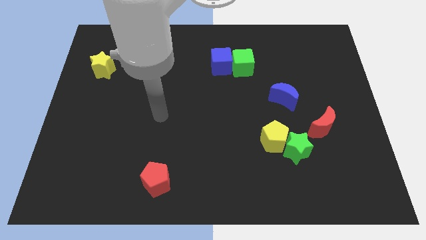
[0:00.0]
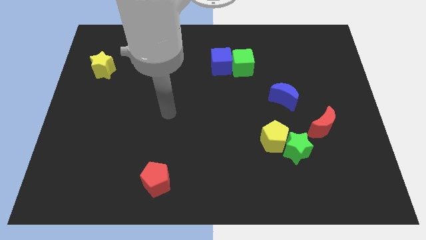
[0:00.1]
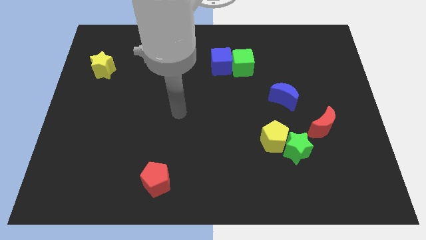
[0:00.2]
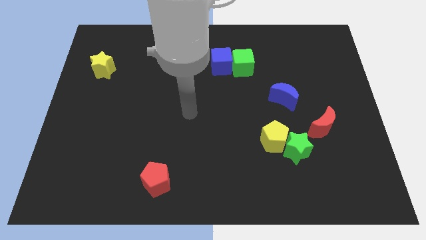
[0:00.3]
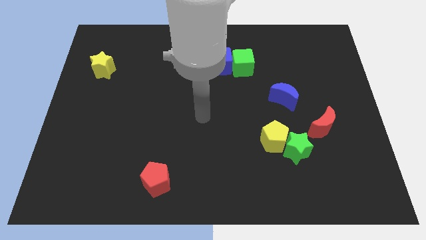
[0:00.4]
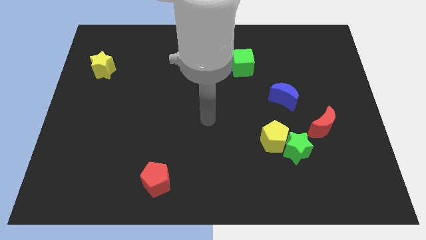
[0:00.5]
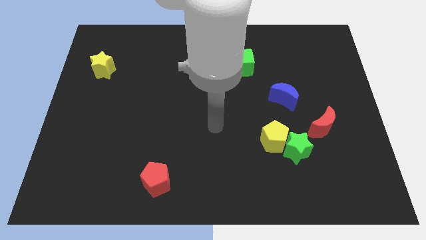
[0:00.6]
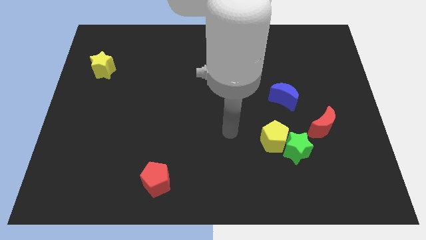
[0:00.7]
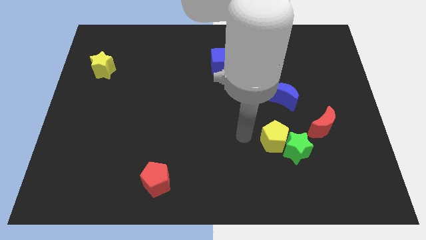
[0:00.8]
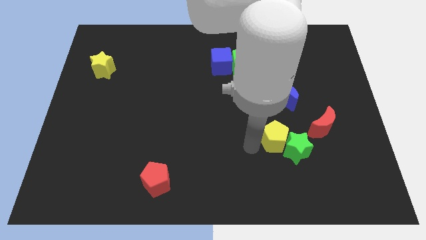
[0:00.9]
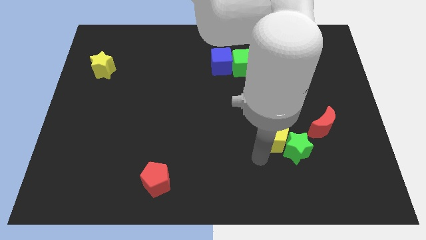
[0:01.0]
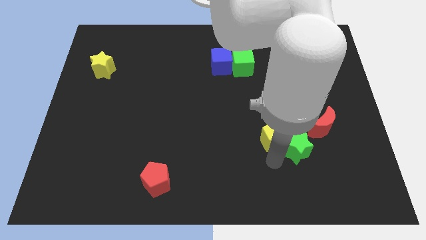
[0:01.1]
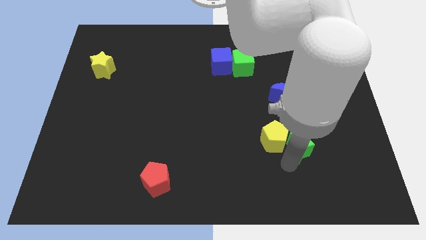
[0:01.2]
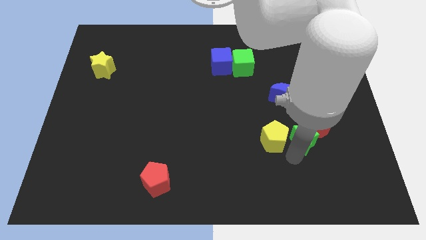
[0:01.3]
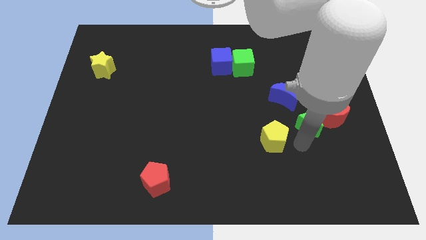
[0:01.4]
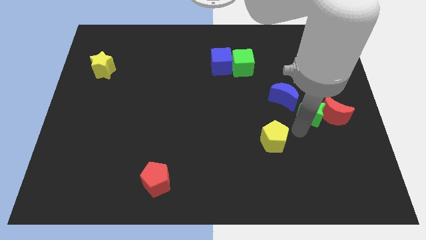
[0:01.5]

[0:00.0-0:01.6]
move the yellow pentagon away from the green star

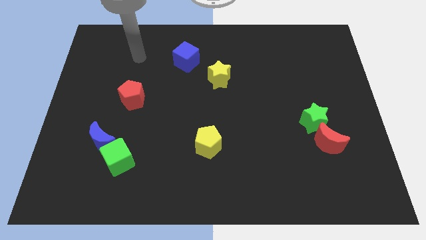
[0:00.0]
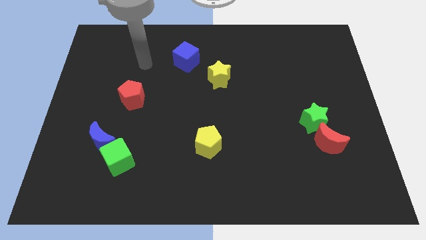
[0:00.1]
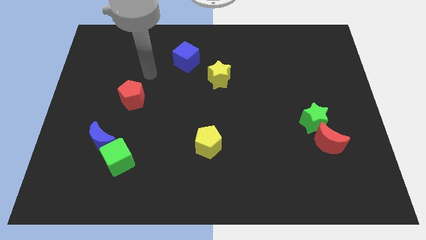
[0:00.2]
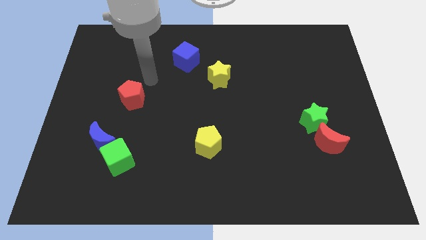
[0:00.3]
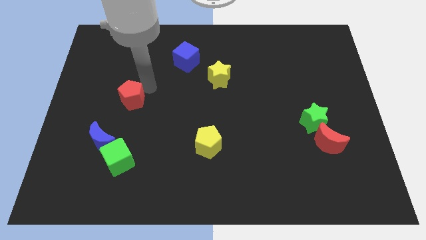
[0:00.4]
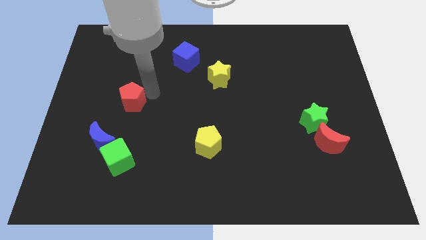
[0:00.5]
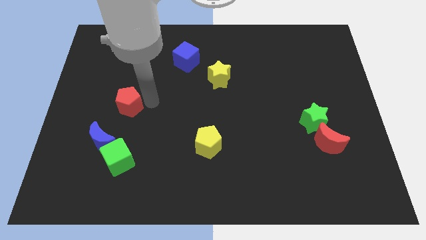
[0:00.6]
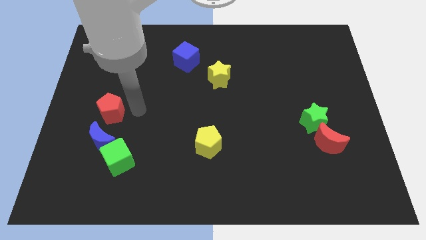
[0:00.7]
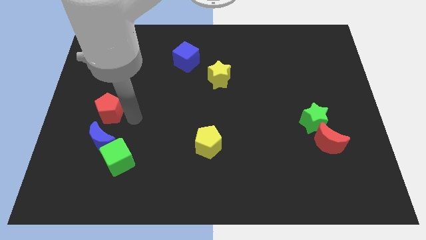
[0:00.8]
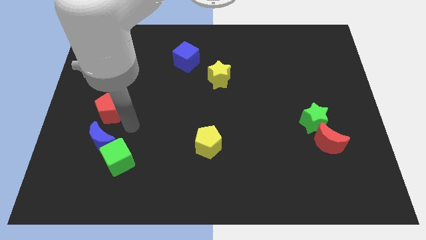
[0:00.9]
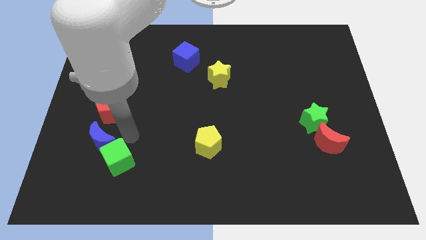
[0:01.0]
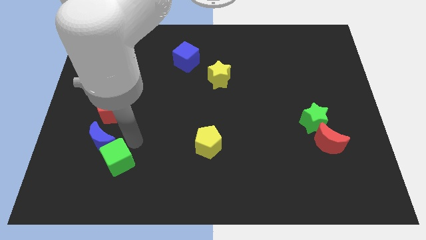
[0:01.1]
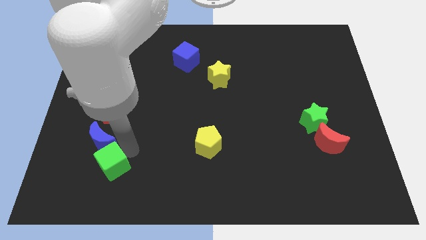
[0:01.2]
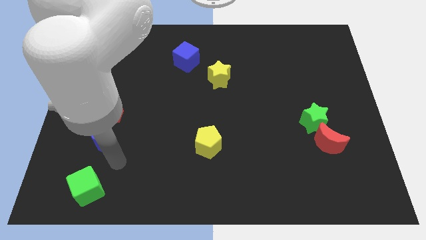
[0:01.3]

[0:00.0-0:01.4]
pull the blue moon apart from the green cube

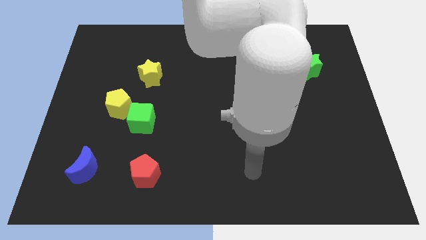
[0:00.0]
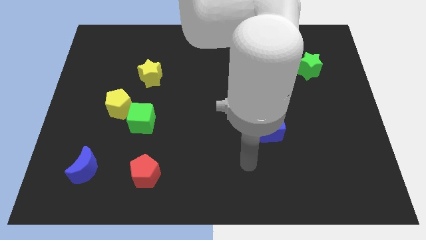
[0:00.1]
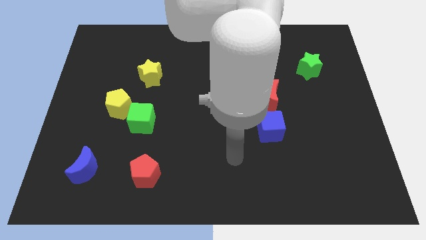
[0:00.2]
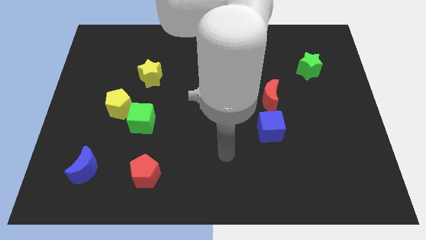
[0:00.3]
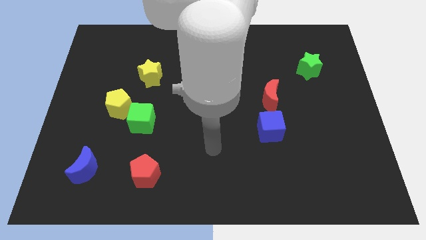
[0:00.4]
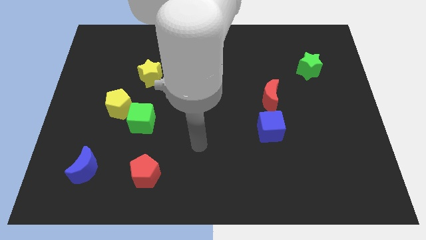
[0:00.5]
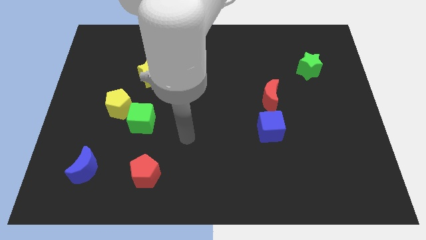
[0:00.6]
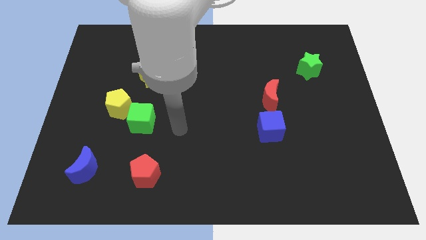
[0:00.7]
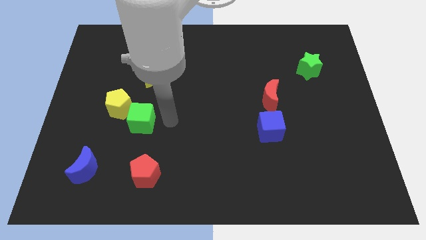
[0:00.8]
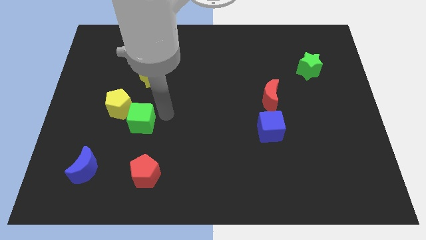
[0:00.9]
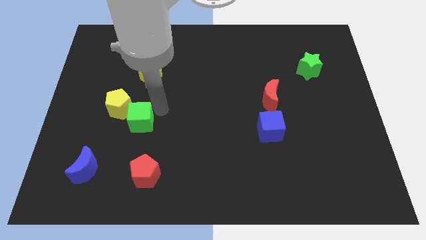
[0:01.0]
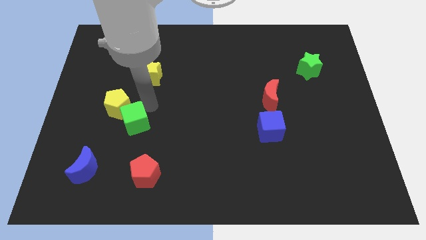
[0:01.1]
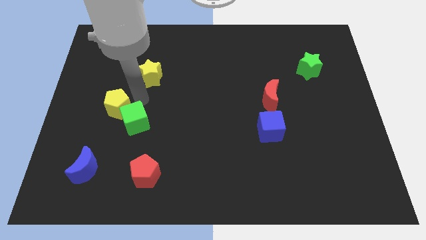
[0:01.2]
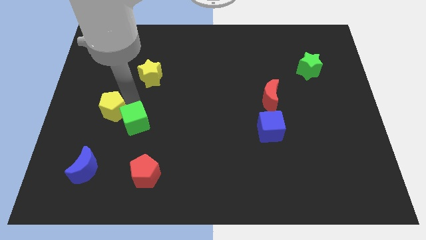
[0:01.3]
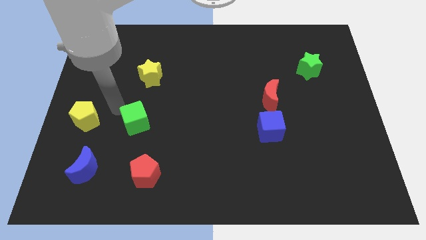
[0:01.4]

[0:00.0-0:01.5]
separate the green cube from the yellow pentagon

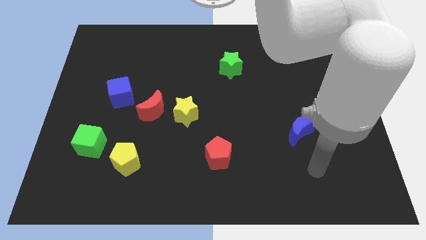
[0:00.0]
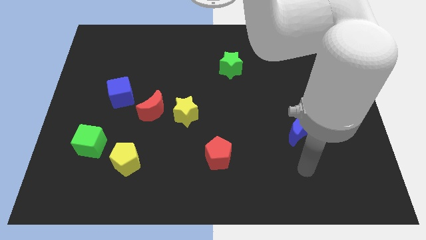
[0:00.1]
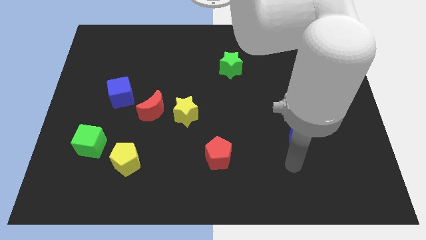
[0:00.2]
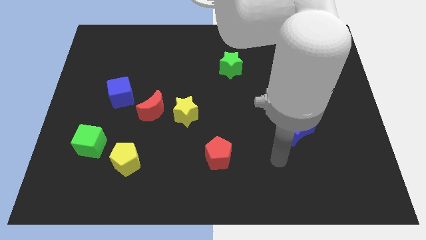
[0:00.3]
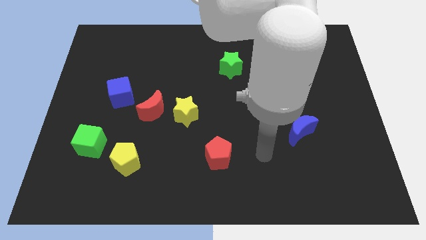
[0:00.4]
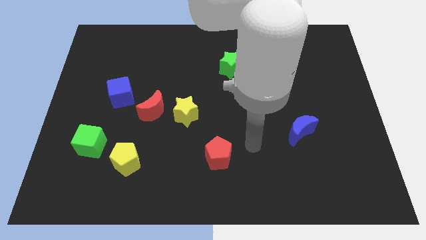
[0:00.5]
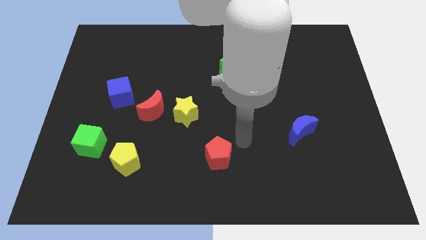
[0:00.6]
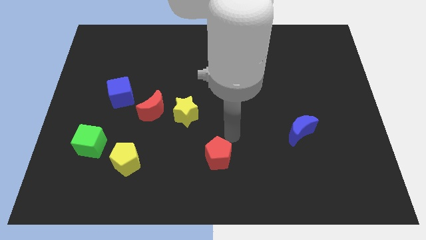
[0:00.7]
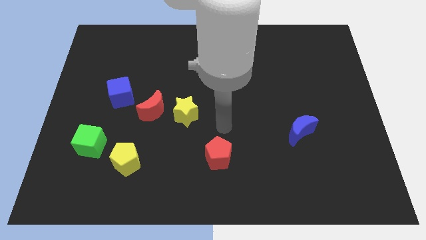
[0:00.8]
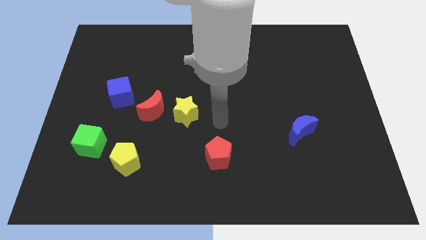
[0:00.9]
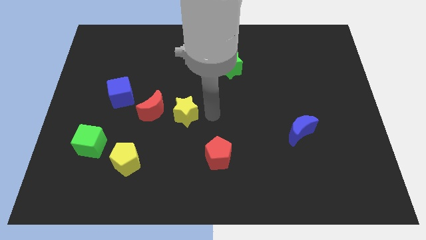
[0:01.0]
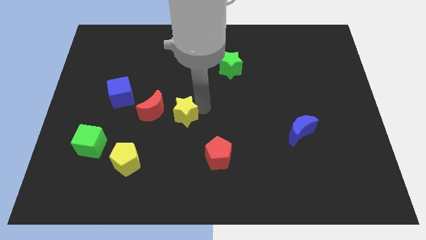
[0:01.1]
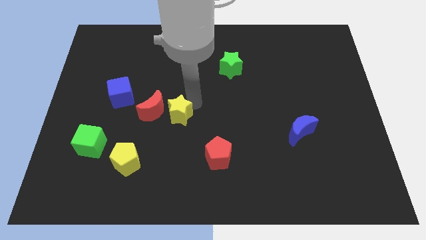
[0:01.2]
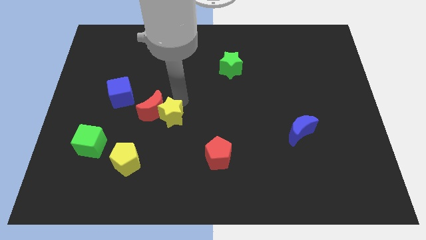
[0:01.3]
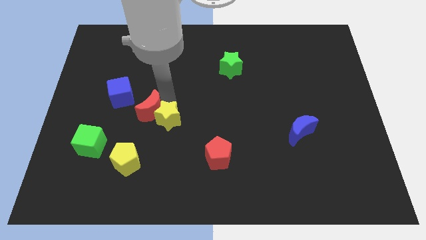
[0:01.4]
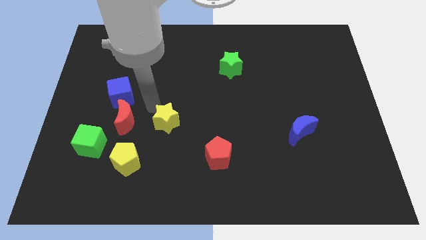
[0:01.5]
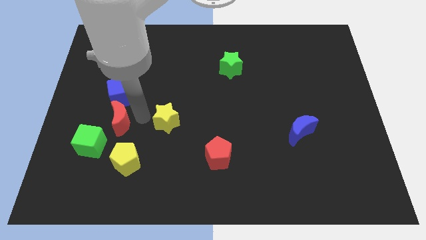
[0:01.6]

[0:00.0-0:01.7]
pull the yellow star apart from the red moon

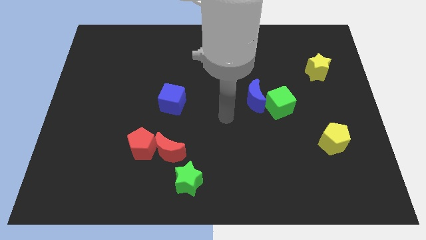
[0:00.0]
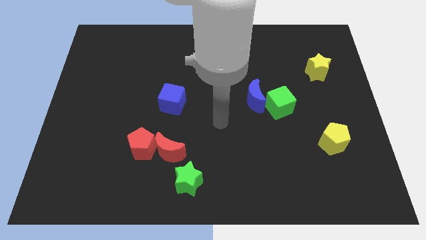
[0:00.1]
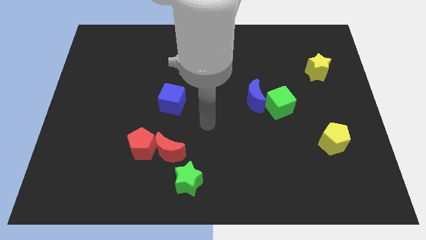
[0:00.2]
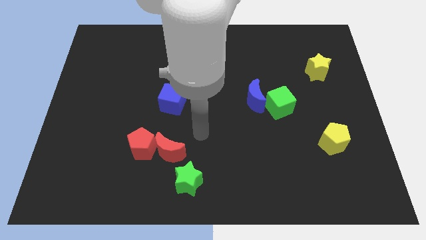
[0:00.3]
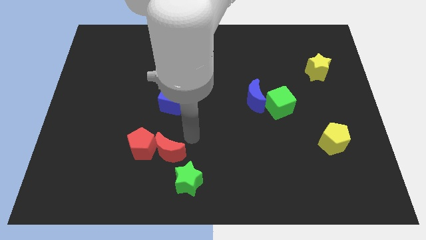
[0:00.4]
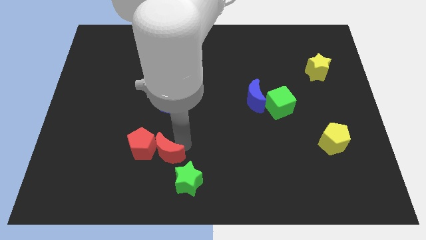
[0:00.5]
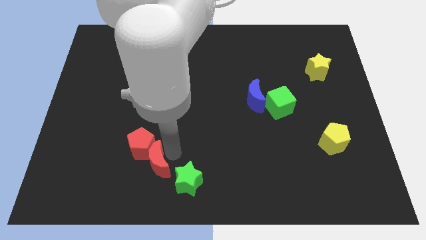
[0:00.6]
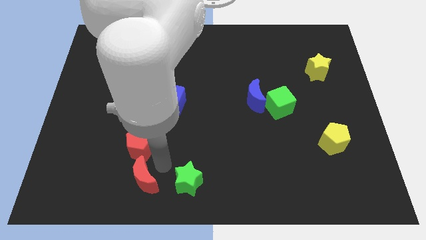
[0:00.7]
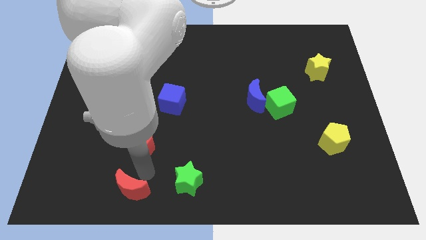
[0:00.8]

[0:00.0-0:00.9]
separate the red pentagon from the red moon

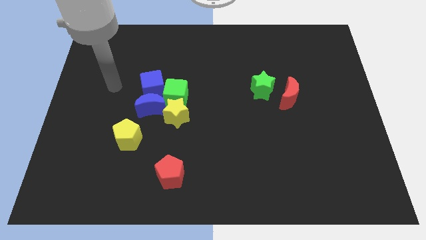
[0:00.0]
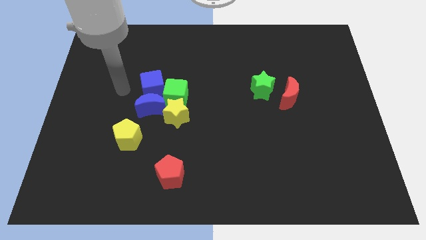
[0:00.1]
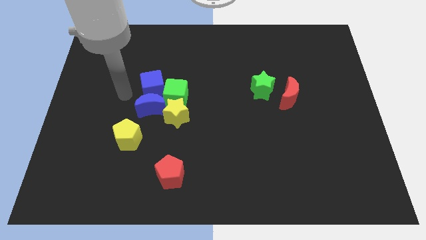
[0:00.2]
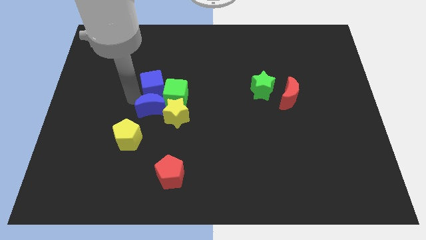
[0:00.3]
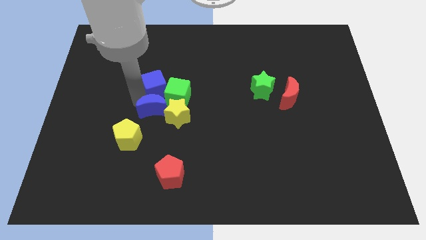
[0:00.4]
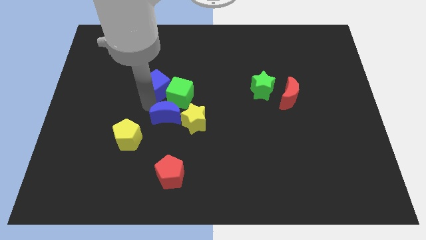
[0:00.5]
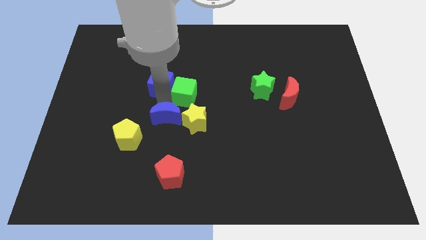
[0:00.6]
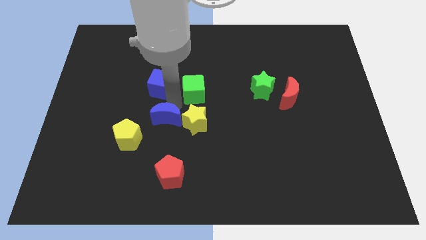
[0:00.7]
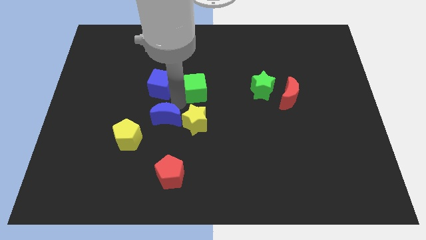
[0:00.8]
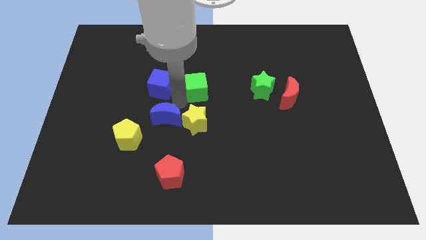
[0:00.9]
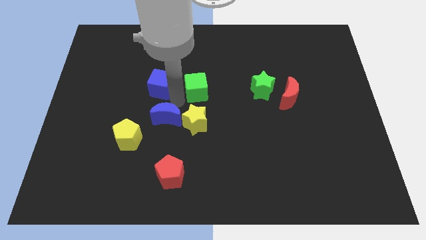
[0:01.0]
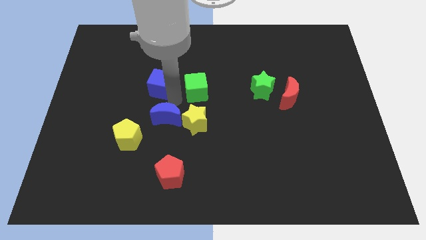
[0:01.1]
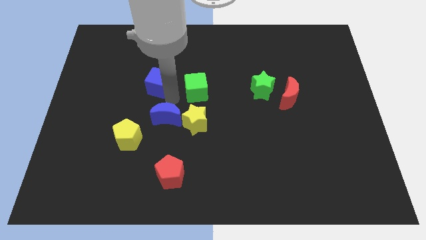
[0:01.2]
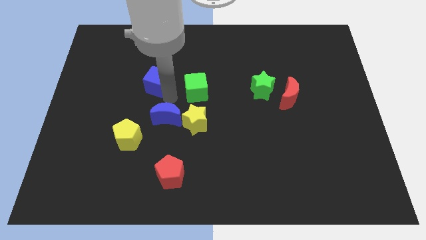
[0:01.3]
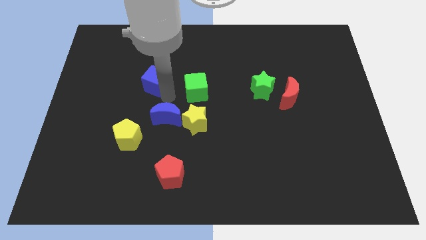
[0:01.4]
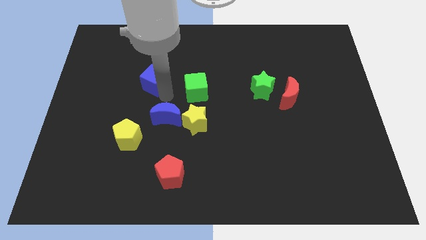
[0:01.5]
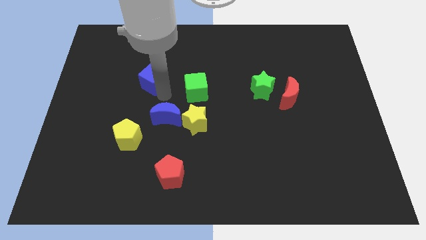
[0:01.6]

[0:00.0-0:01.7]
pull the blue cube apart from the blue moon and green cube

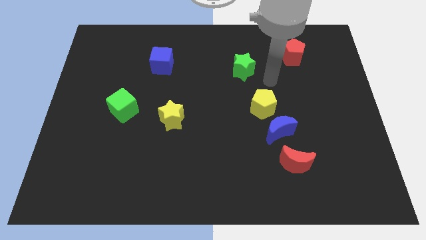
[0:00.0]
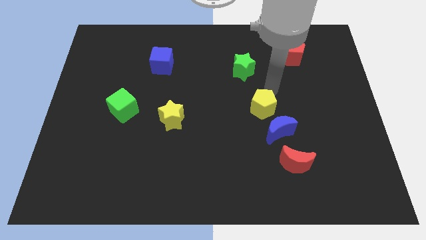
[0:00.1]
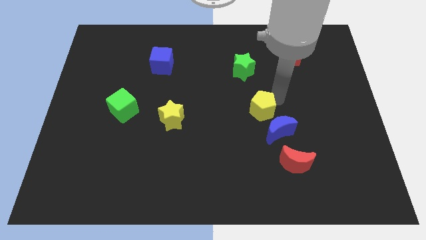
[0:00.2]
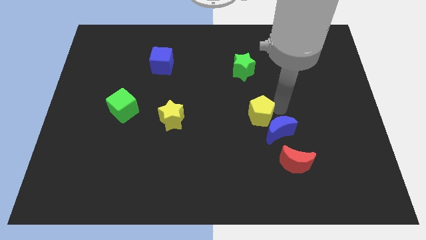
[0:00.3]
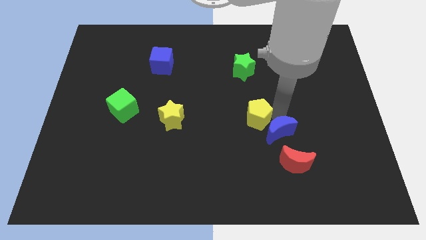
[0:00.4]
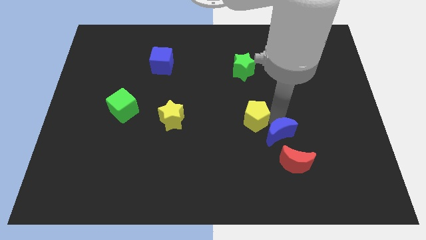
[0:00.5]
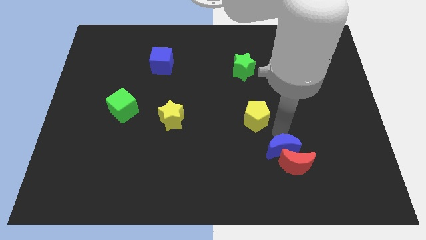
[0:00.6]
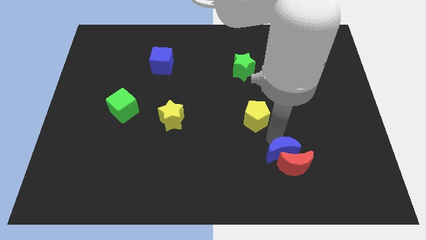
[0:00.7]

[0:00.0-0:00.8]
move the yellow pentagon away from the blue moon
